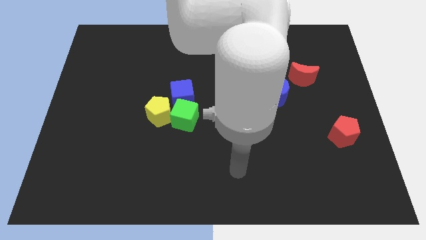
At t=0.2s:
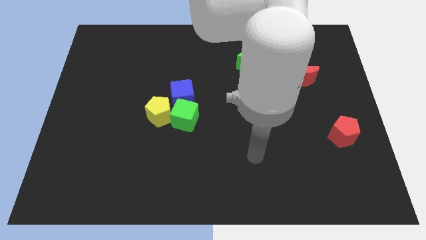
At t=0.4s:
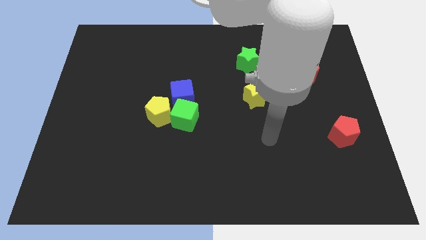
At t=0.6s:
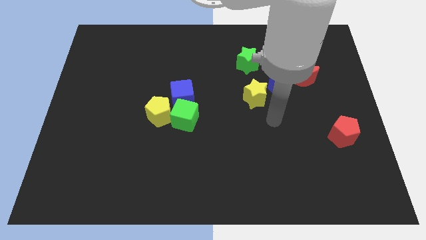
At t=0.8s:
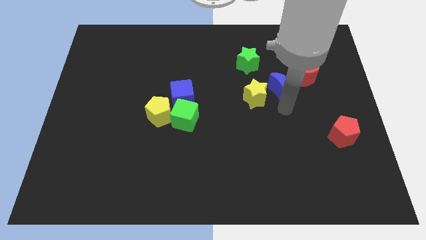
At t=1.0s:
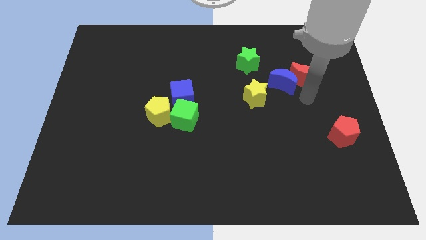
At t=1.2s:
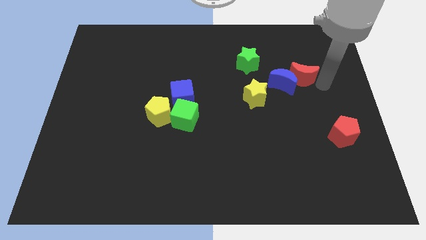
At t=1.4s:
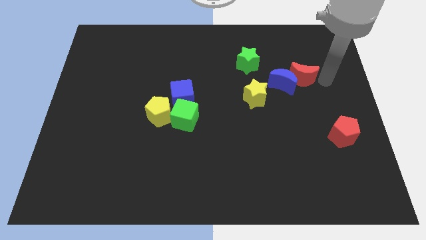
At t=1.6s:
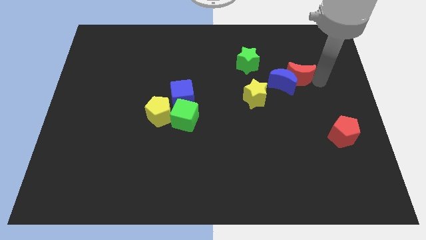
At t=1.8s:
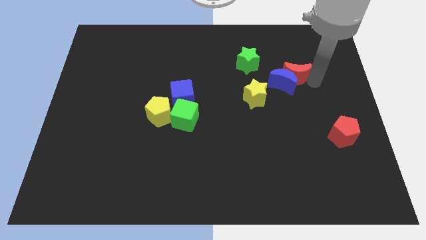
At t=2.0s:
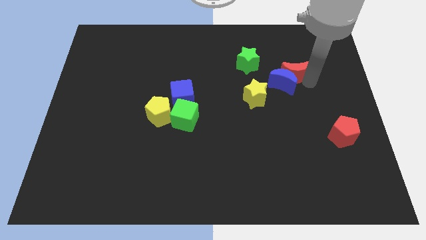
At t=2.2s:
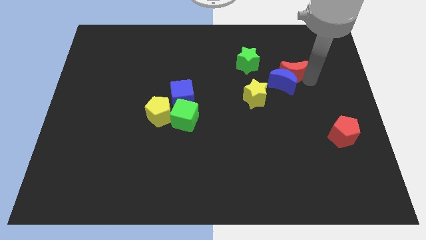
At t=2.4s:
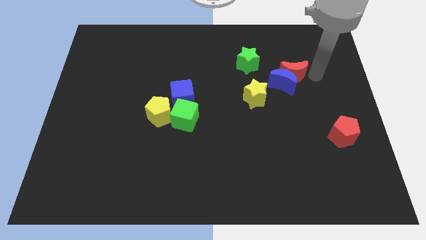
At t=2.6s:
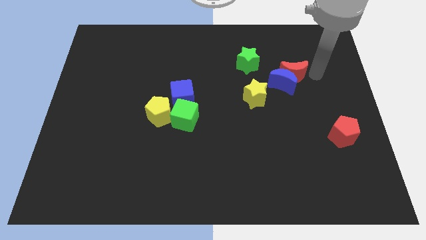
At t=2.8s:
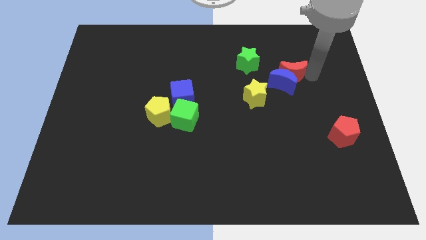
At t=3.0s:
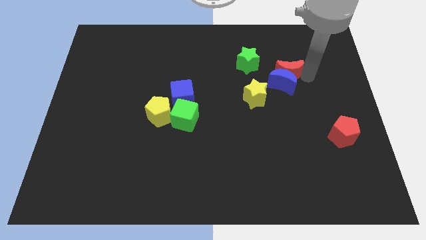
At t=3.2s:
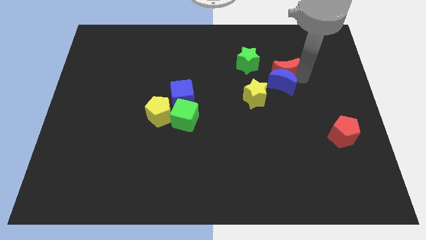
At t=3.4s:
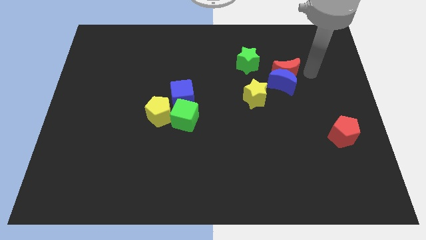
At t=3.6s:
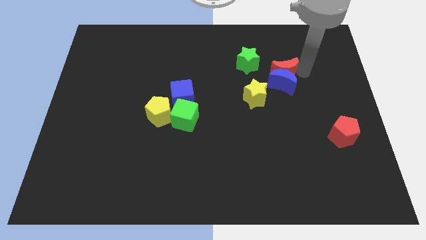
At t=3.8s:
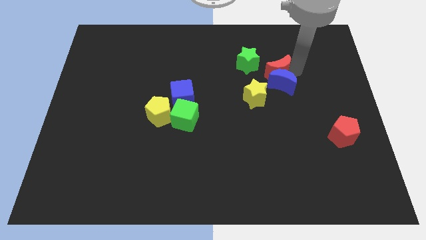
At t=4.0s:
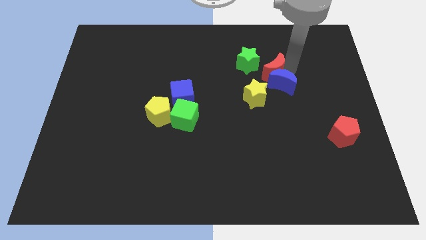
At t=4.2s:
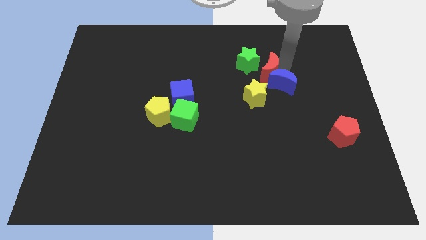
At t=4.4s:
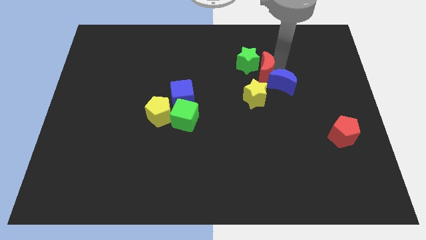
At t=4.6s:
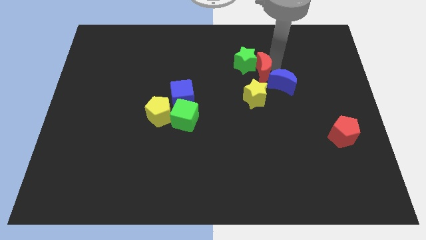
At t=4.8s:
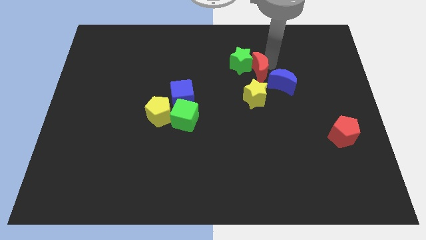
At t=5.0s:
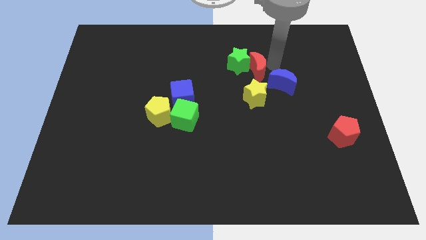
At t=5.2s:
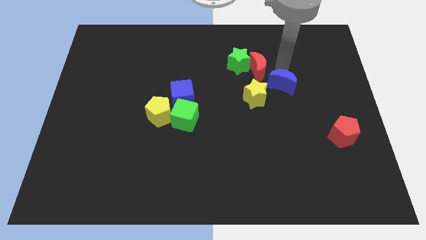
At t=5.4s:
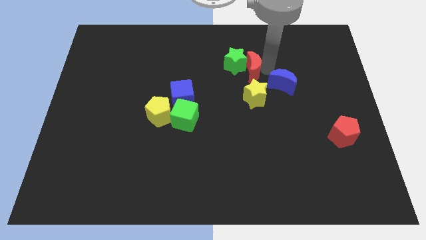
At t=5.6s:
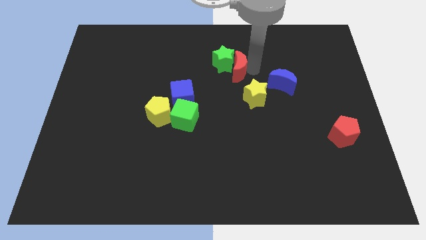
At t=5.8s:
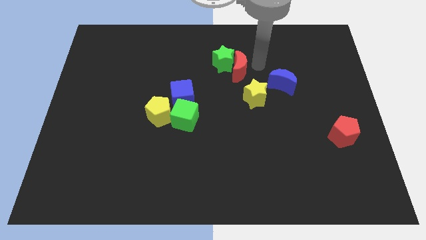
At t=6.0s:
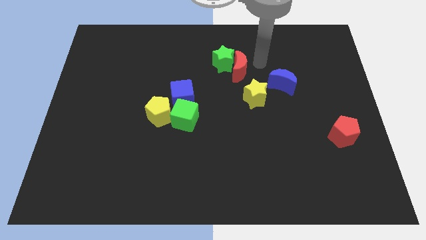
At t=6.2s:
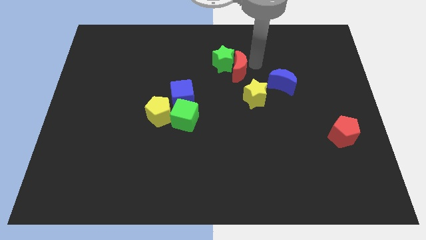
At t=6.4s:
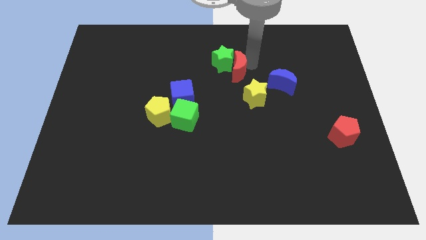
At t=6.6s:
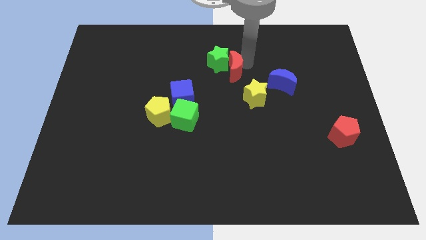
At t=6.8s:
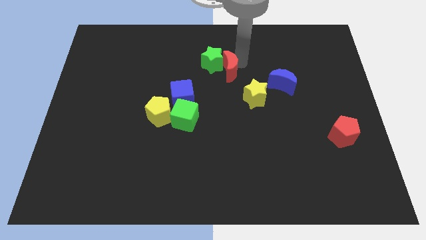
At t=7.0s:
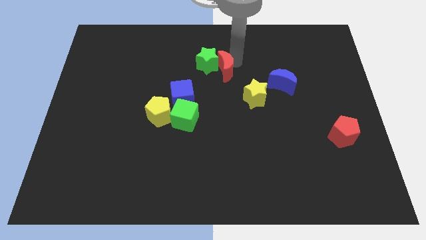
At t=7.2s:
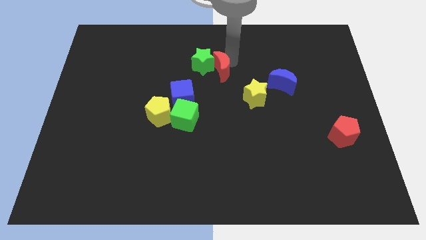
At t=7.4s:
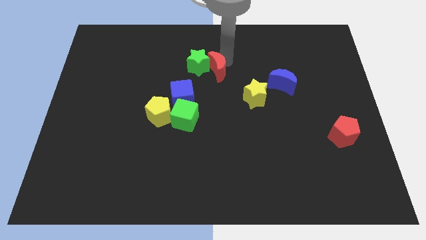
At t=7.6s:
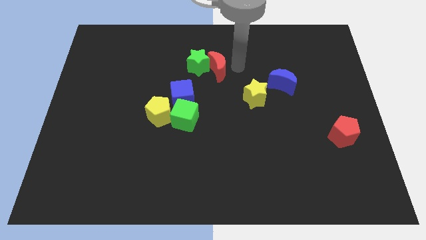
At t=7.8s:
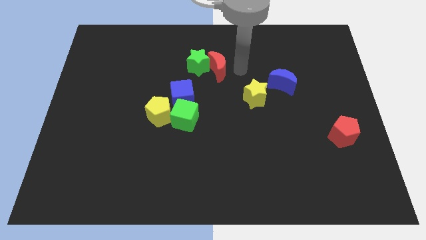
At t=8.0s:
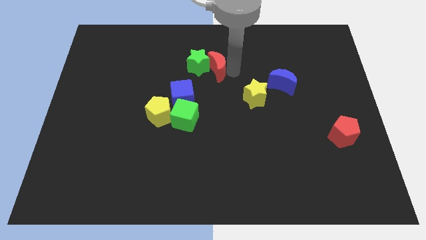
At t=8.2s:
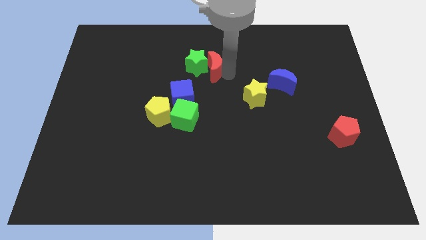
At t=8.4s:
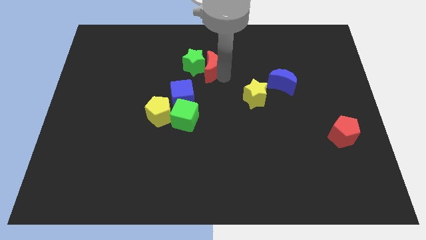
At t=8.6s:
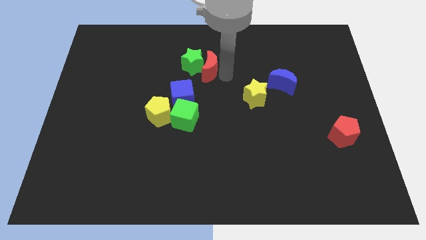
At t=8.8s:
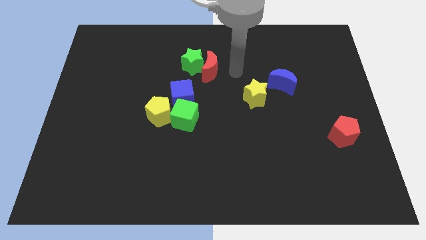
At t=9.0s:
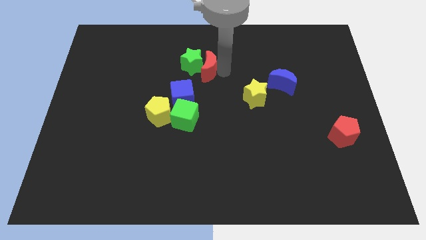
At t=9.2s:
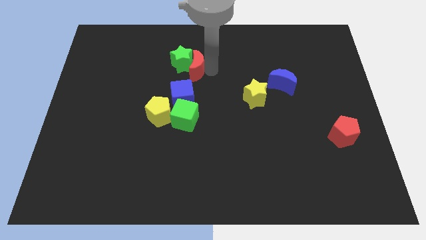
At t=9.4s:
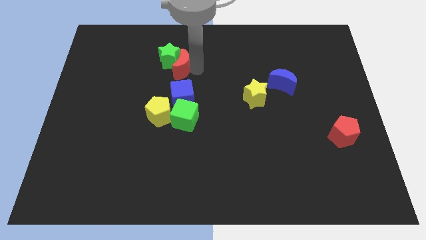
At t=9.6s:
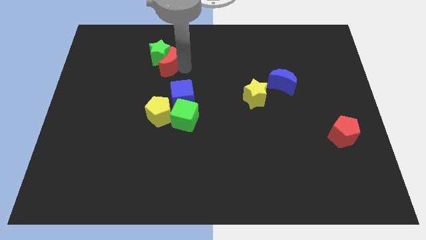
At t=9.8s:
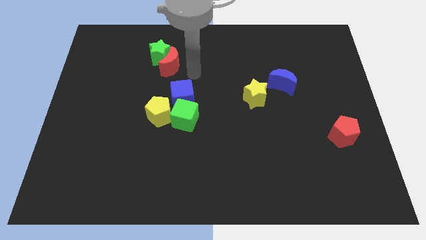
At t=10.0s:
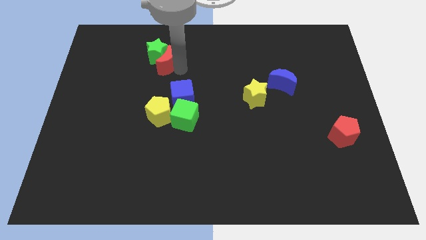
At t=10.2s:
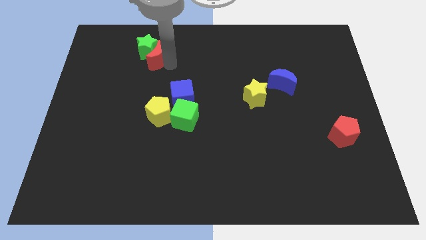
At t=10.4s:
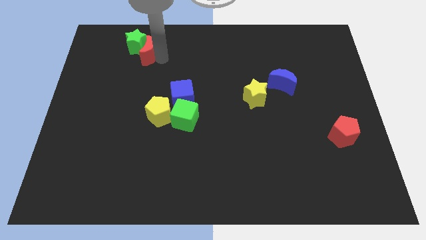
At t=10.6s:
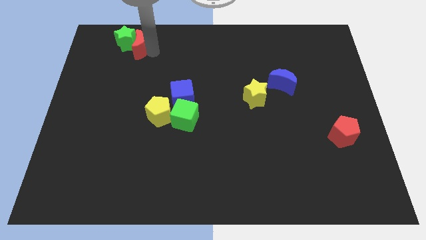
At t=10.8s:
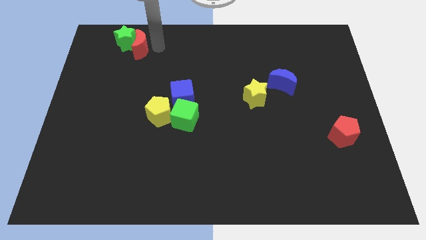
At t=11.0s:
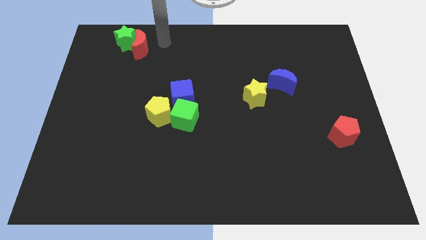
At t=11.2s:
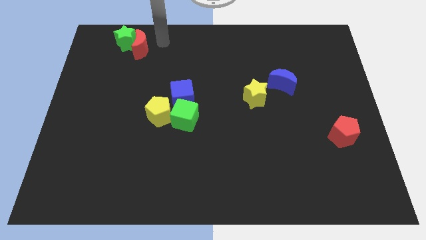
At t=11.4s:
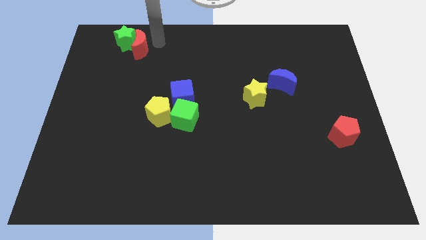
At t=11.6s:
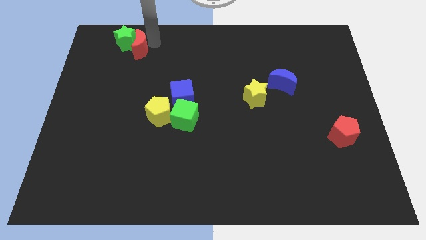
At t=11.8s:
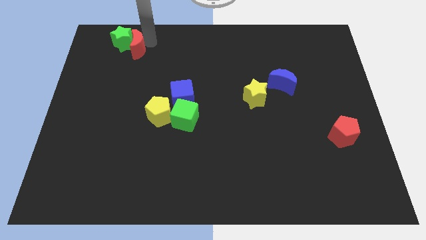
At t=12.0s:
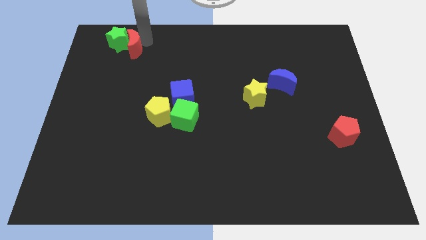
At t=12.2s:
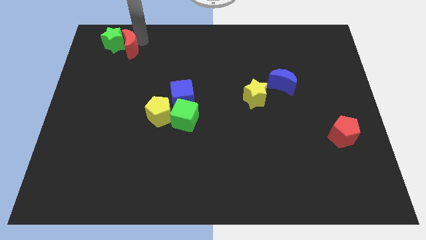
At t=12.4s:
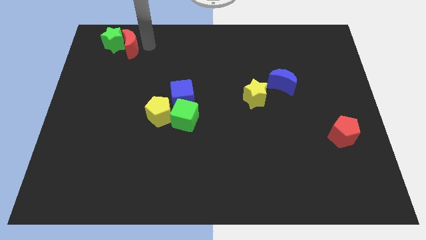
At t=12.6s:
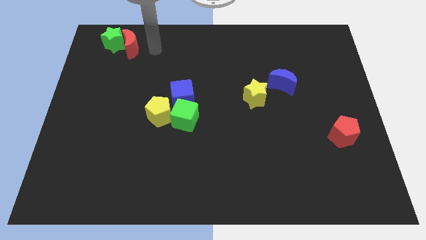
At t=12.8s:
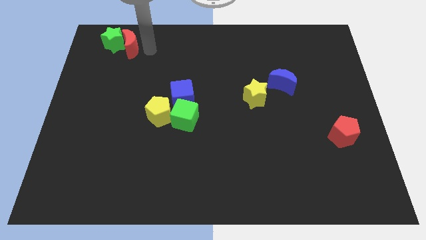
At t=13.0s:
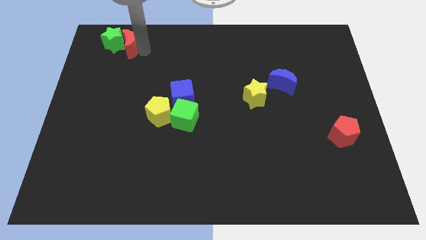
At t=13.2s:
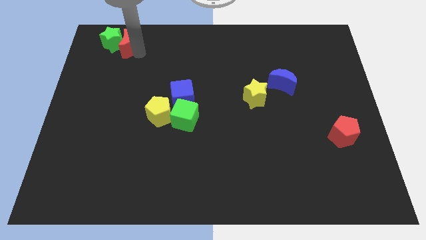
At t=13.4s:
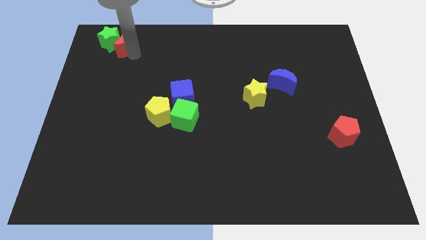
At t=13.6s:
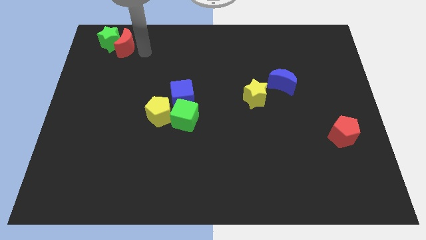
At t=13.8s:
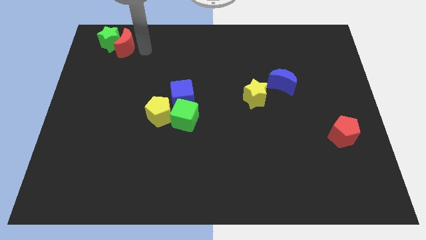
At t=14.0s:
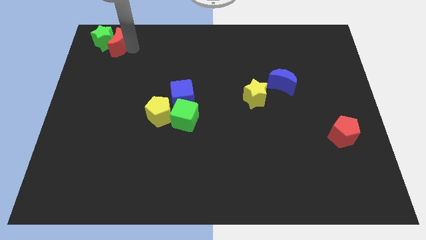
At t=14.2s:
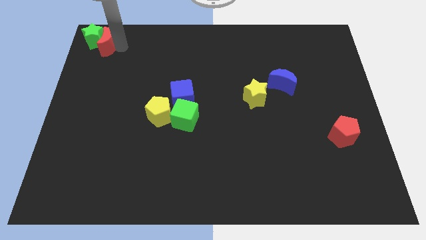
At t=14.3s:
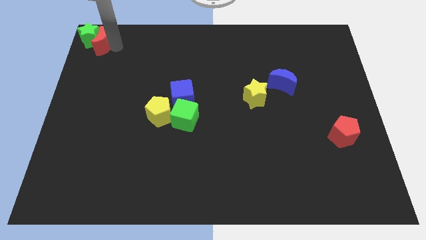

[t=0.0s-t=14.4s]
slide the red moon to the top left
